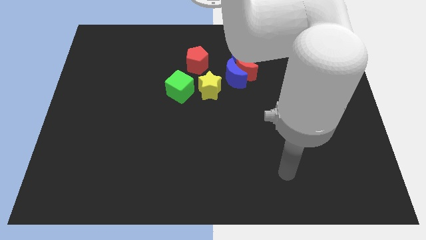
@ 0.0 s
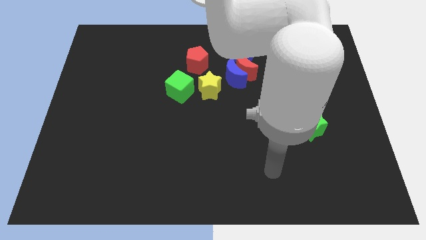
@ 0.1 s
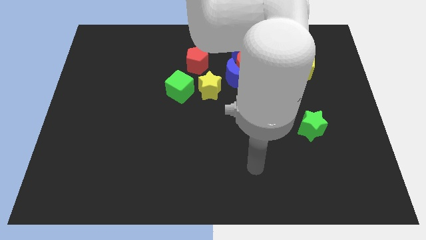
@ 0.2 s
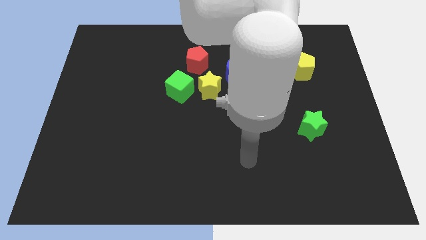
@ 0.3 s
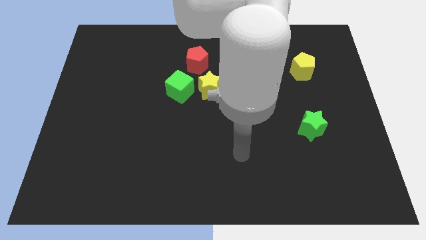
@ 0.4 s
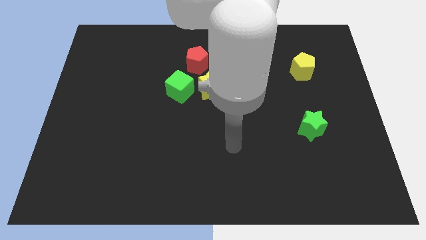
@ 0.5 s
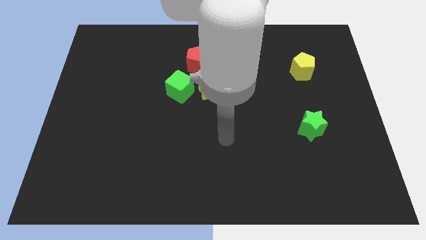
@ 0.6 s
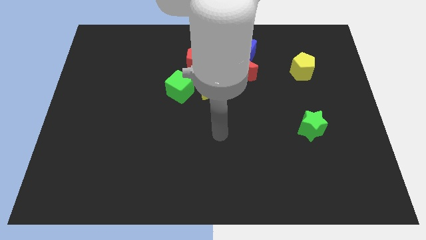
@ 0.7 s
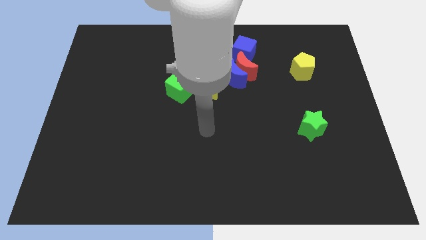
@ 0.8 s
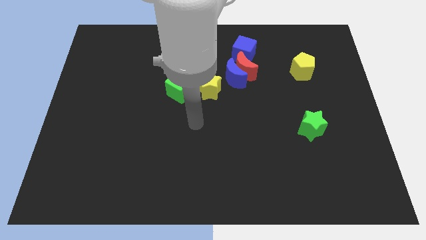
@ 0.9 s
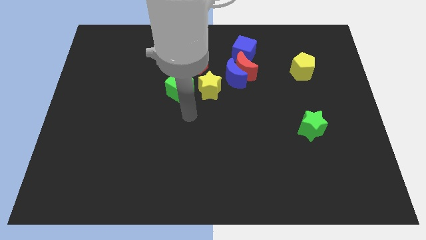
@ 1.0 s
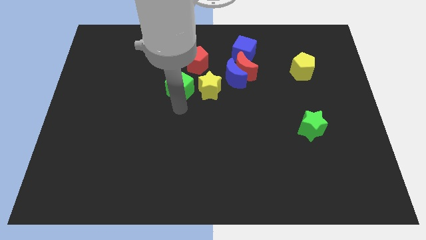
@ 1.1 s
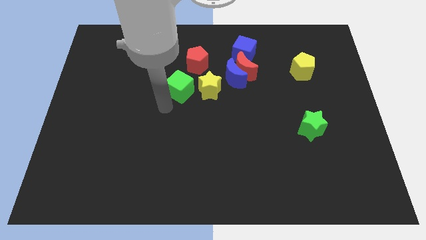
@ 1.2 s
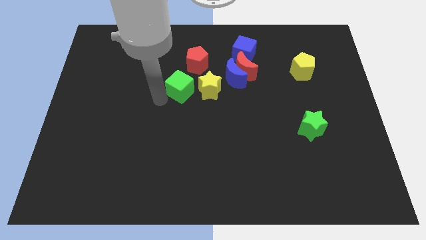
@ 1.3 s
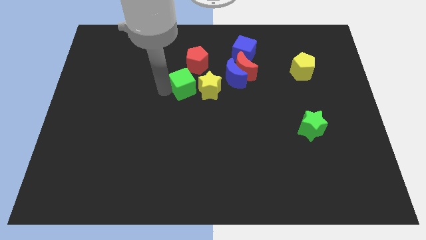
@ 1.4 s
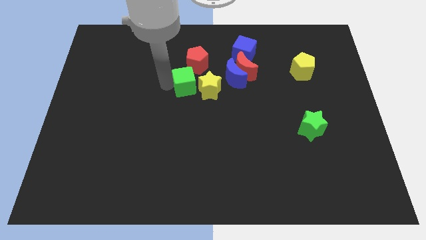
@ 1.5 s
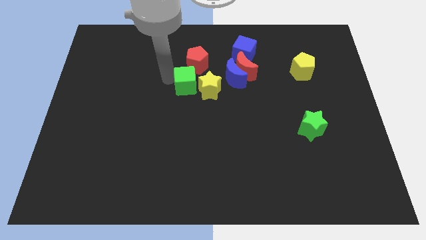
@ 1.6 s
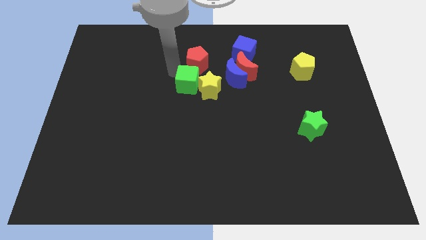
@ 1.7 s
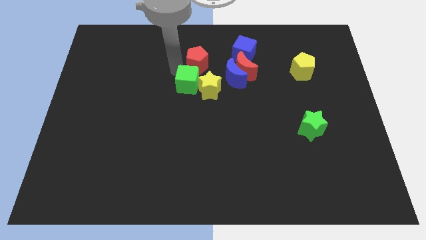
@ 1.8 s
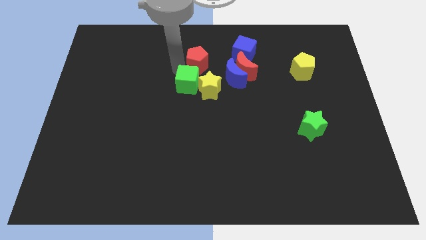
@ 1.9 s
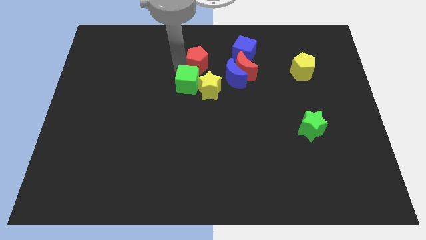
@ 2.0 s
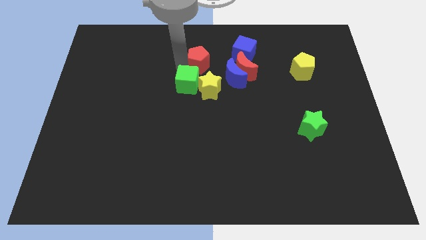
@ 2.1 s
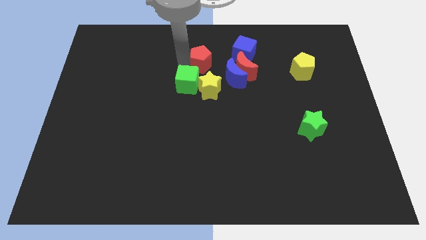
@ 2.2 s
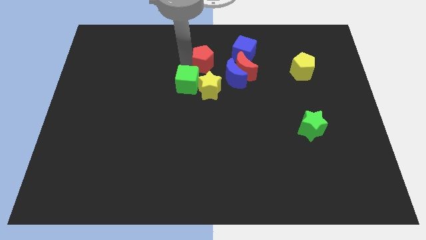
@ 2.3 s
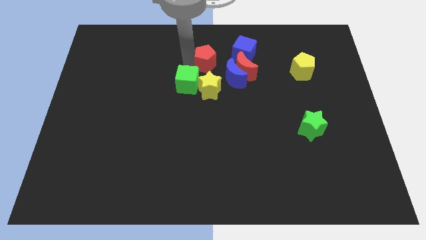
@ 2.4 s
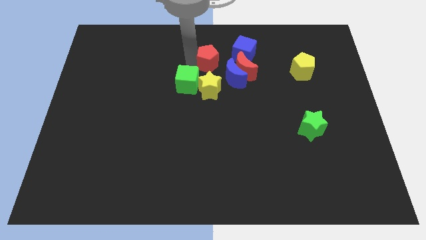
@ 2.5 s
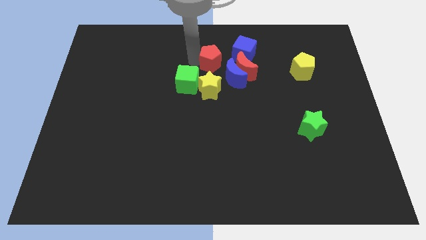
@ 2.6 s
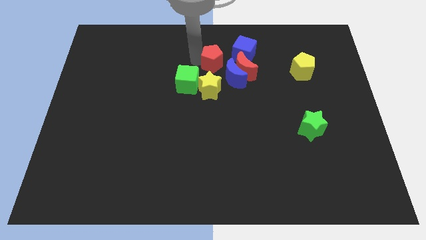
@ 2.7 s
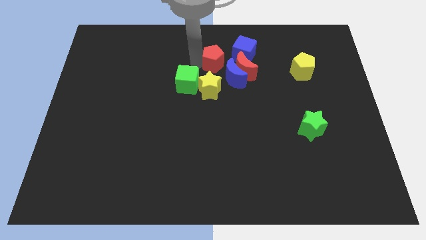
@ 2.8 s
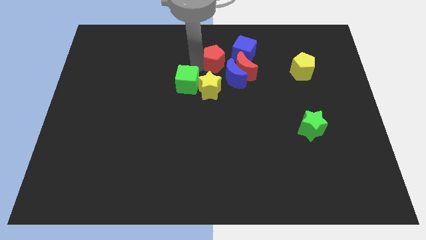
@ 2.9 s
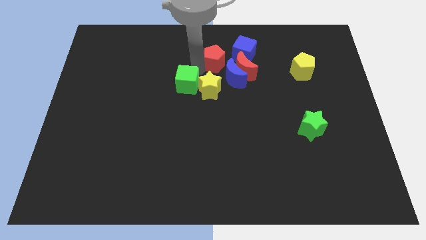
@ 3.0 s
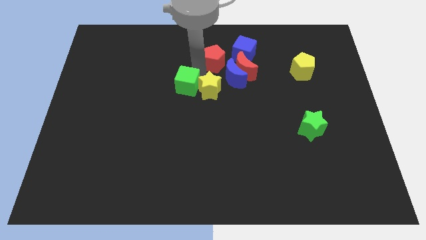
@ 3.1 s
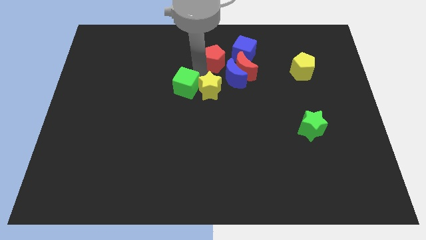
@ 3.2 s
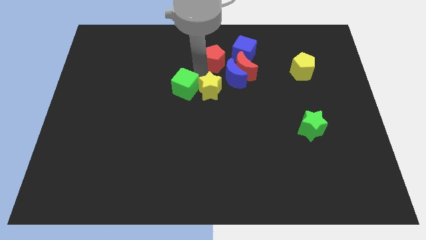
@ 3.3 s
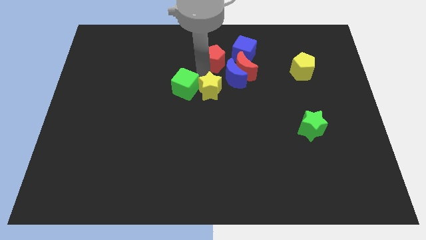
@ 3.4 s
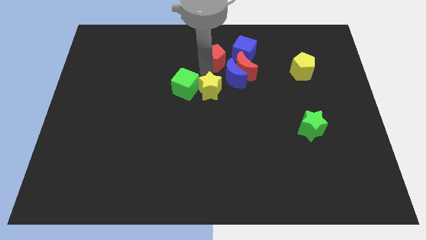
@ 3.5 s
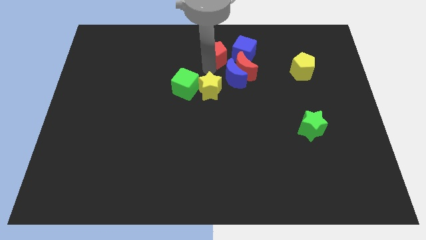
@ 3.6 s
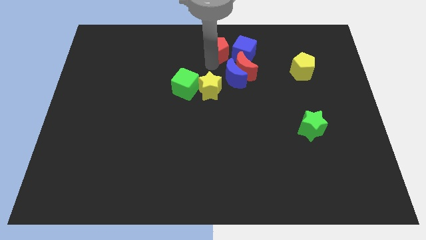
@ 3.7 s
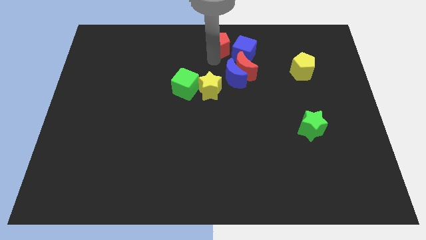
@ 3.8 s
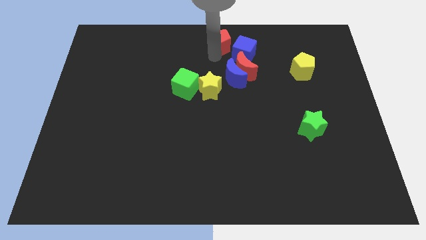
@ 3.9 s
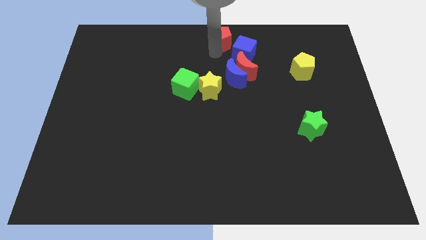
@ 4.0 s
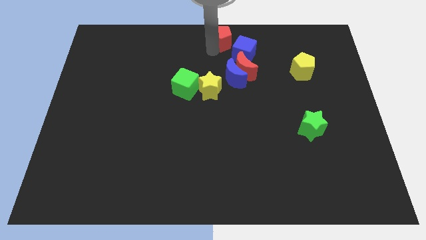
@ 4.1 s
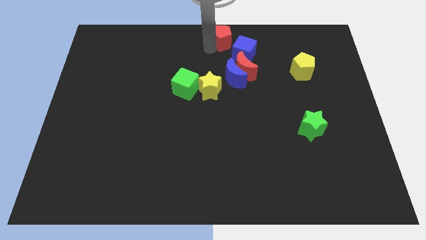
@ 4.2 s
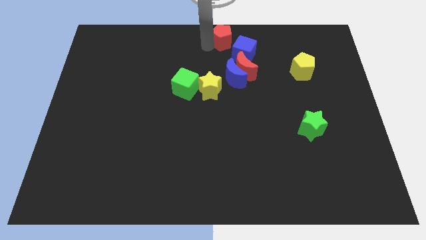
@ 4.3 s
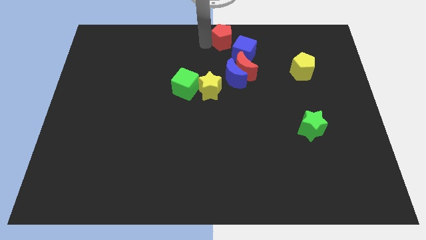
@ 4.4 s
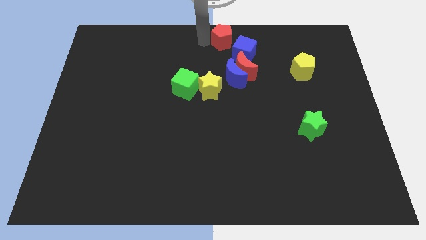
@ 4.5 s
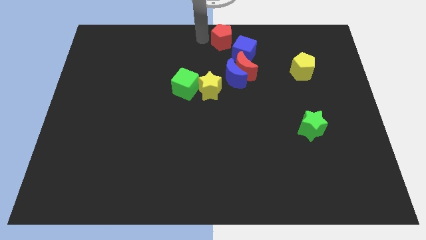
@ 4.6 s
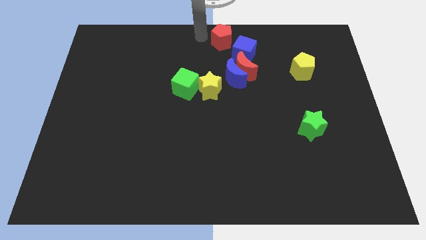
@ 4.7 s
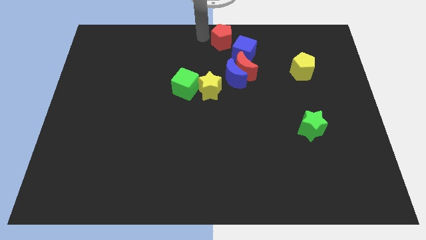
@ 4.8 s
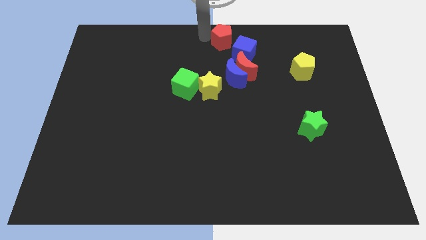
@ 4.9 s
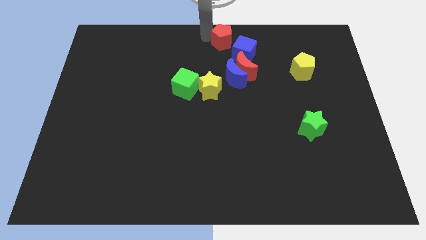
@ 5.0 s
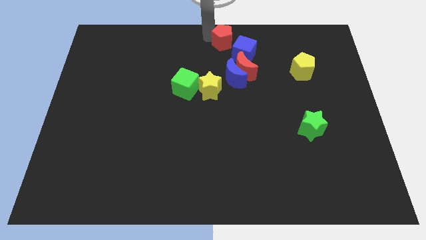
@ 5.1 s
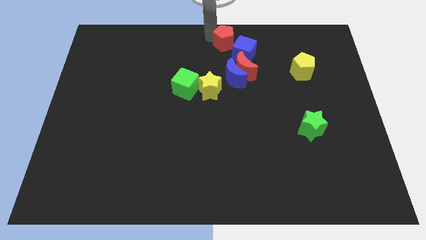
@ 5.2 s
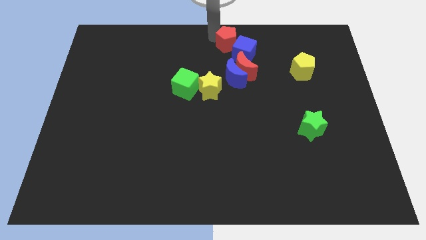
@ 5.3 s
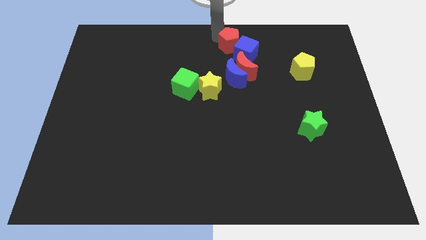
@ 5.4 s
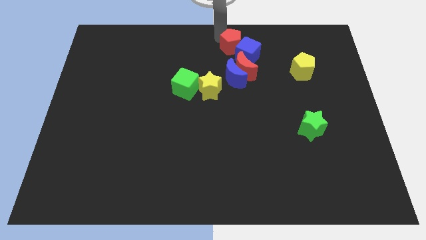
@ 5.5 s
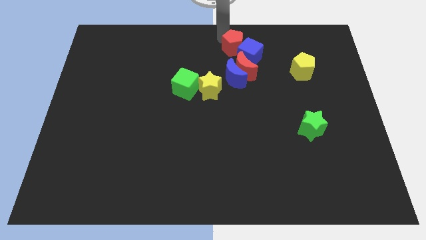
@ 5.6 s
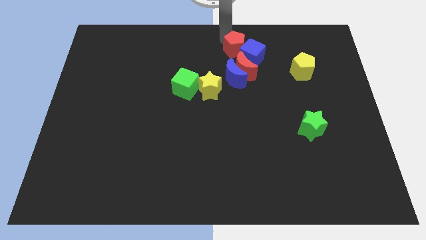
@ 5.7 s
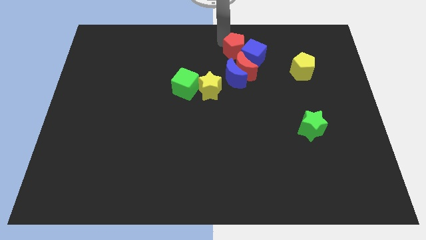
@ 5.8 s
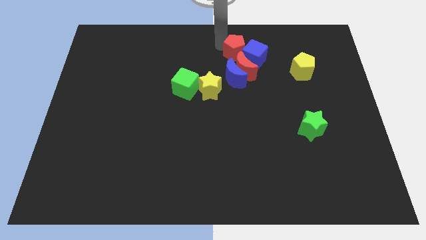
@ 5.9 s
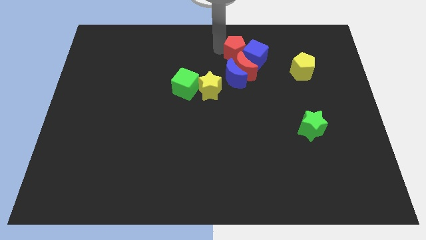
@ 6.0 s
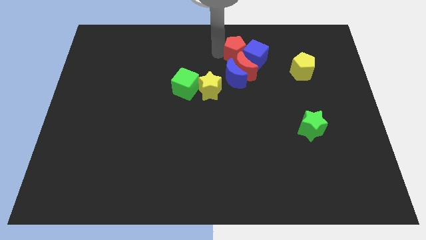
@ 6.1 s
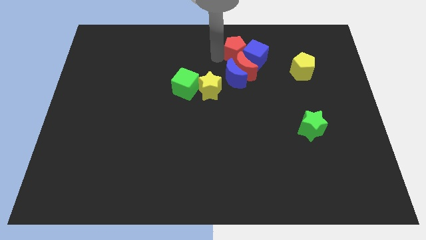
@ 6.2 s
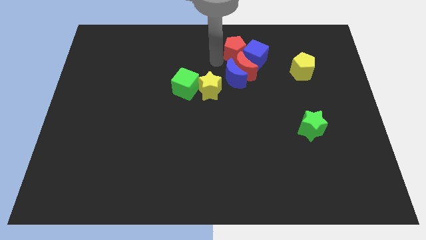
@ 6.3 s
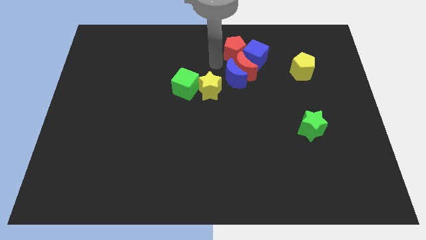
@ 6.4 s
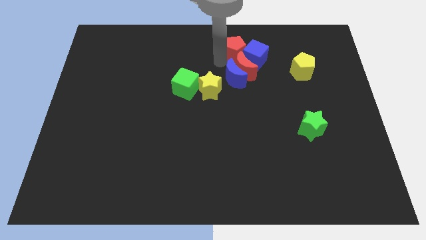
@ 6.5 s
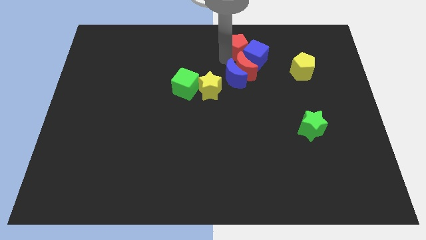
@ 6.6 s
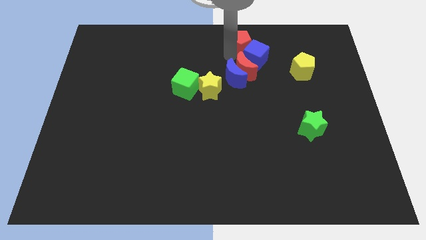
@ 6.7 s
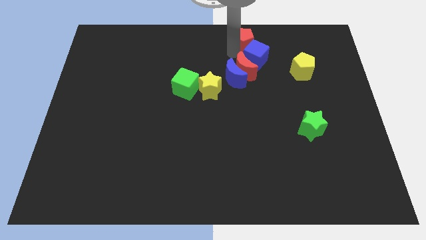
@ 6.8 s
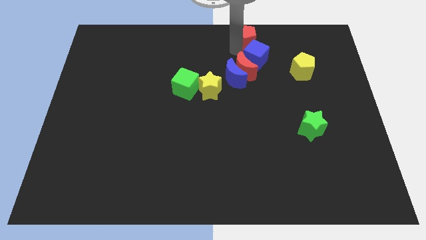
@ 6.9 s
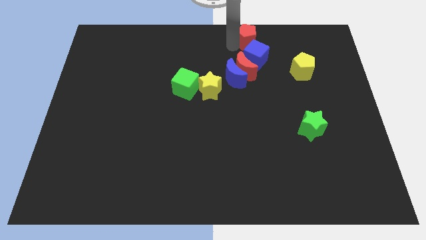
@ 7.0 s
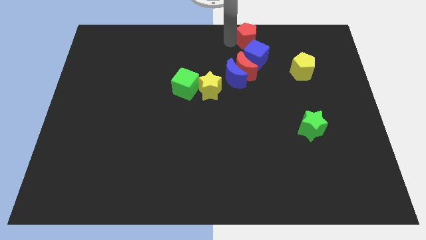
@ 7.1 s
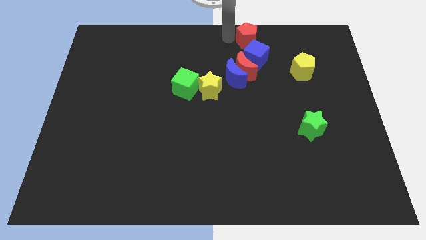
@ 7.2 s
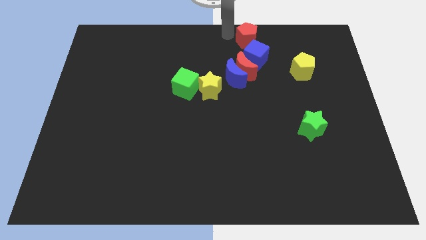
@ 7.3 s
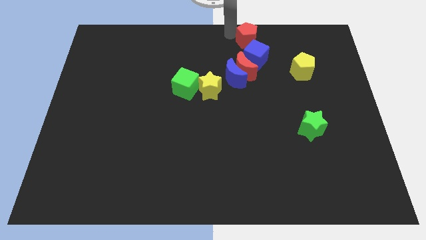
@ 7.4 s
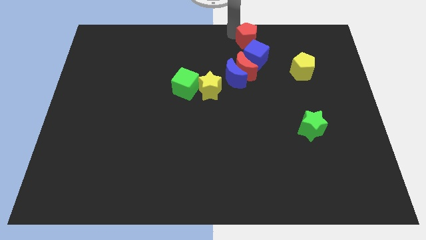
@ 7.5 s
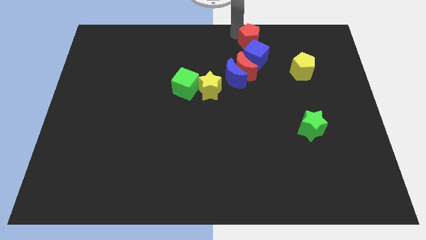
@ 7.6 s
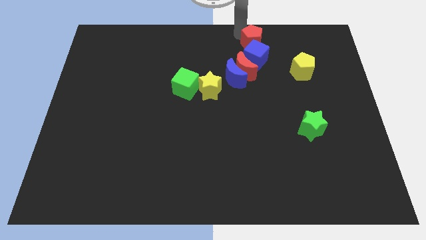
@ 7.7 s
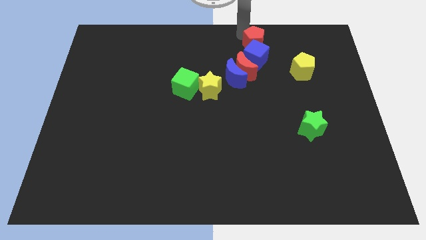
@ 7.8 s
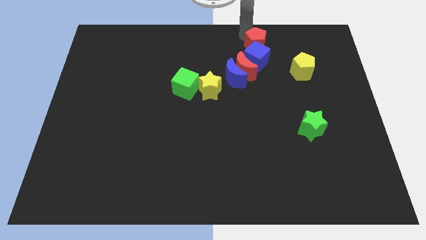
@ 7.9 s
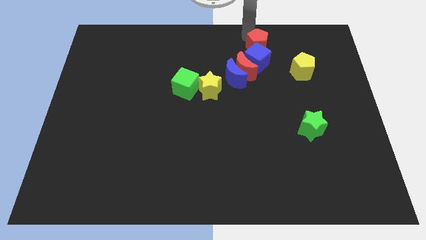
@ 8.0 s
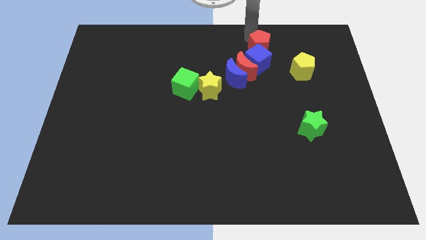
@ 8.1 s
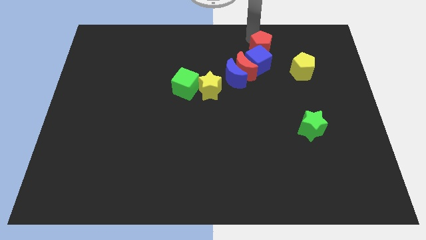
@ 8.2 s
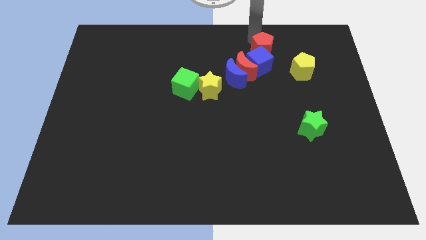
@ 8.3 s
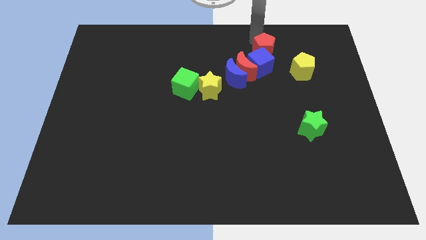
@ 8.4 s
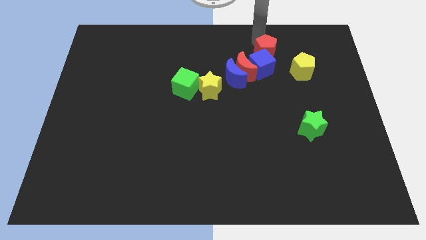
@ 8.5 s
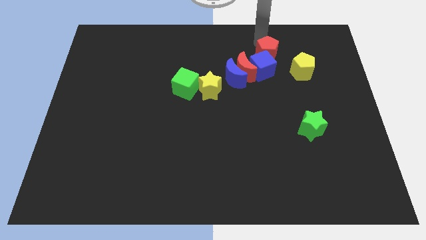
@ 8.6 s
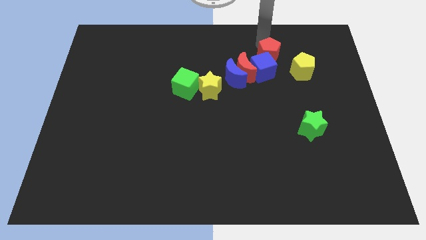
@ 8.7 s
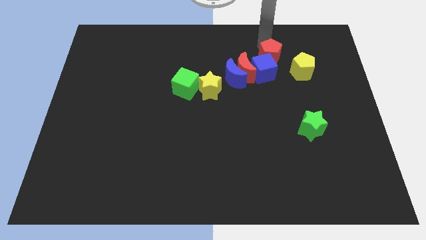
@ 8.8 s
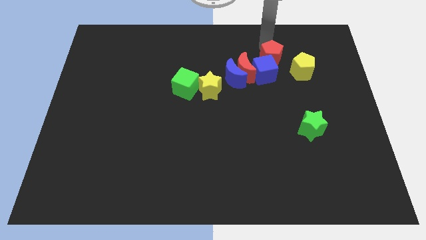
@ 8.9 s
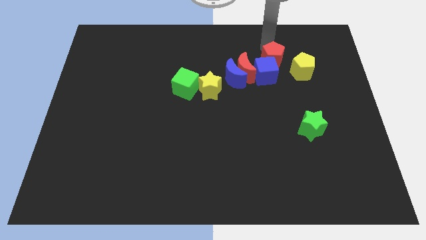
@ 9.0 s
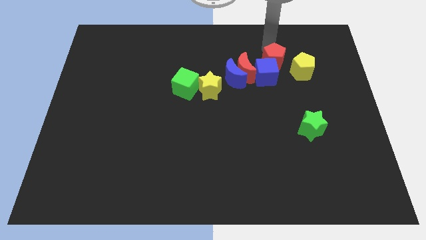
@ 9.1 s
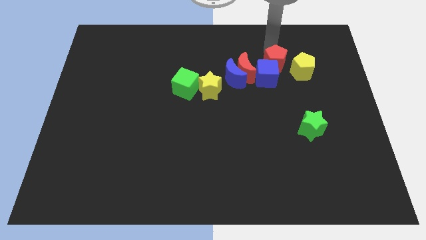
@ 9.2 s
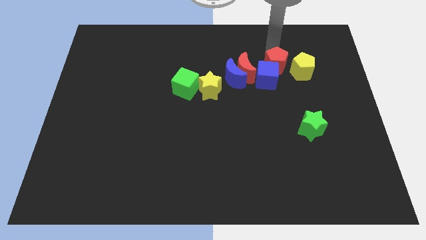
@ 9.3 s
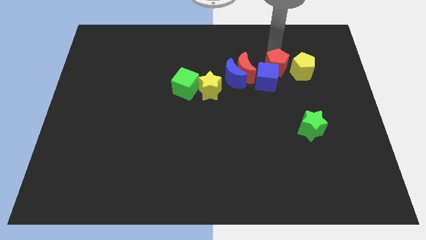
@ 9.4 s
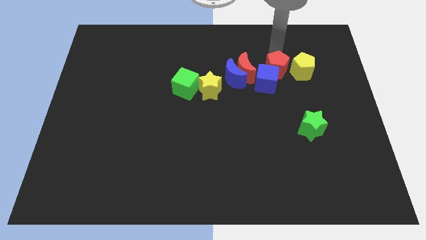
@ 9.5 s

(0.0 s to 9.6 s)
push the red pentagon to the yellow pentagon
